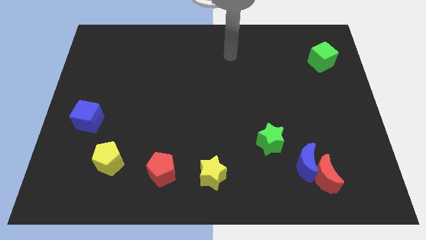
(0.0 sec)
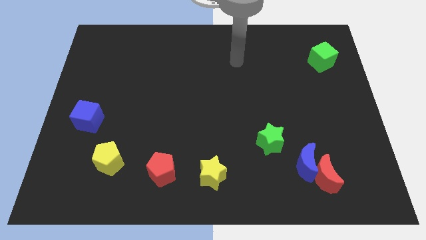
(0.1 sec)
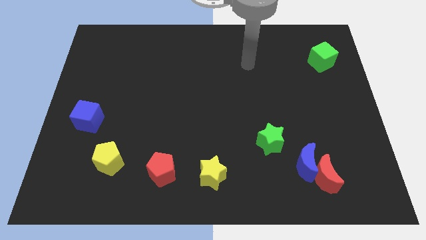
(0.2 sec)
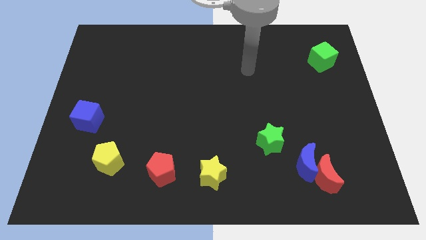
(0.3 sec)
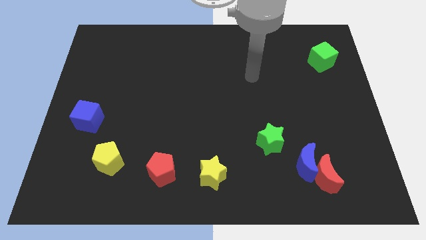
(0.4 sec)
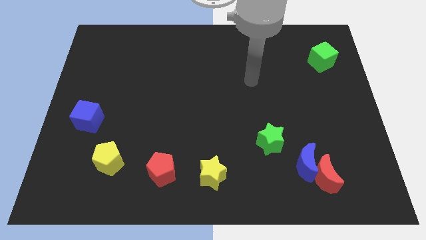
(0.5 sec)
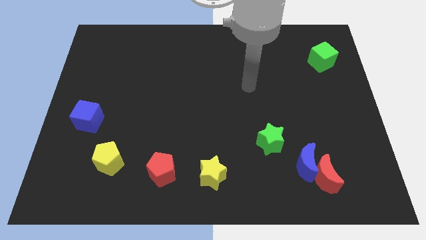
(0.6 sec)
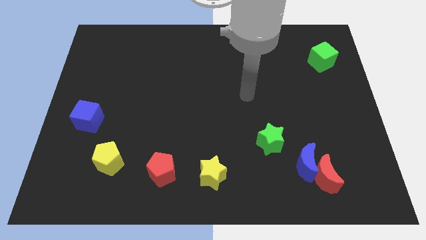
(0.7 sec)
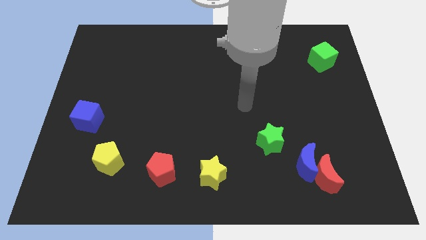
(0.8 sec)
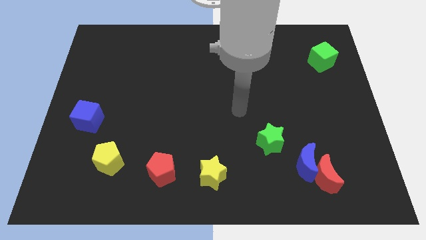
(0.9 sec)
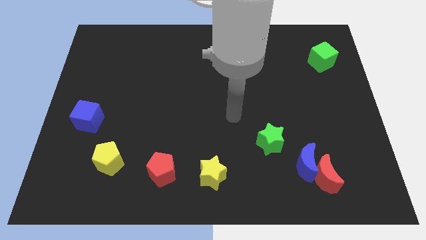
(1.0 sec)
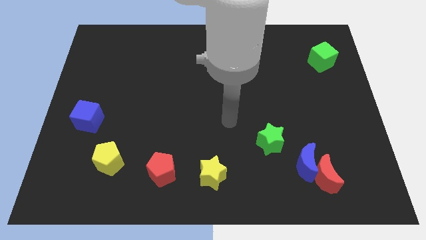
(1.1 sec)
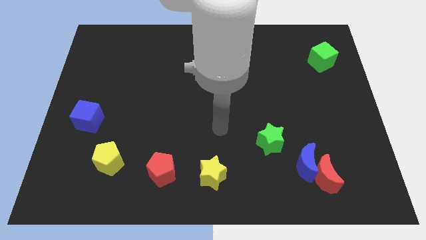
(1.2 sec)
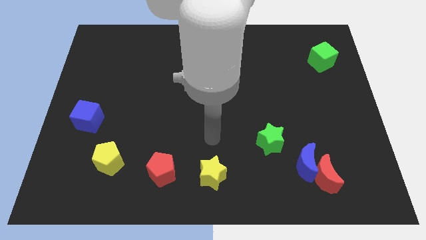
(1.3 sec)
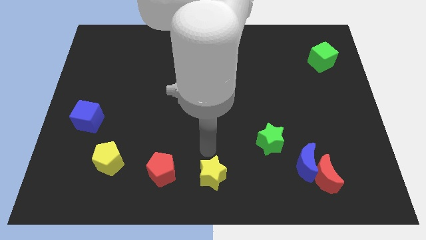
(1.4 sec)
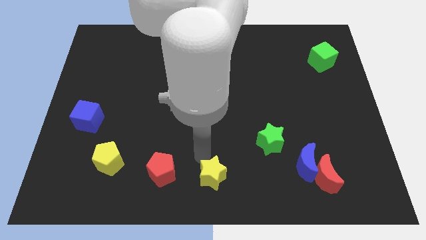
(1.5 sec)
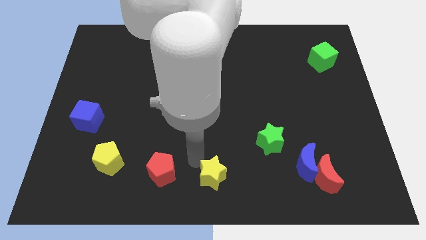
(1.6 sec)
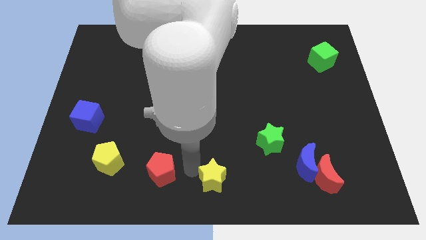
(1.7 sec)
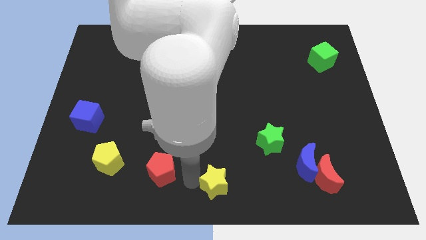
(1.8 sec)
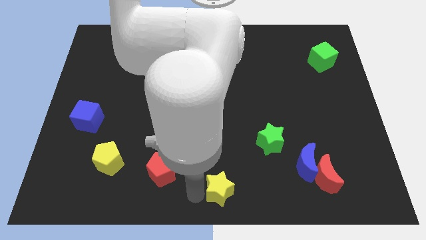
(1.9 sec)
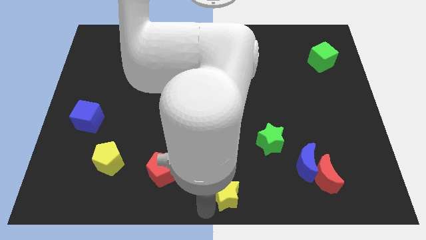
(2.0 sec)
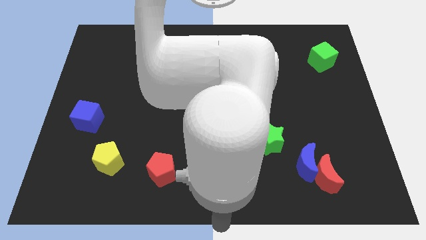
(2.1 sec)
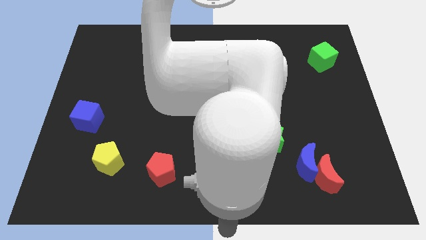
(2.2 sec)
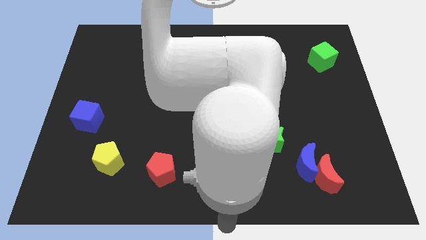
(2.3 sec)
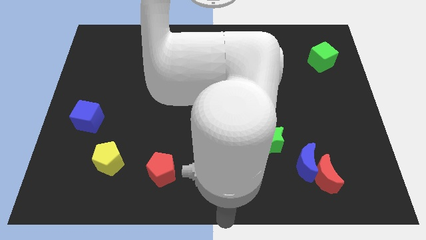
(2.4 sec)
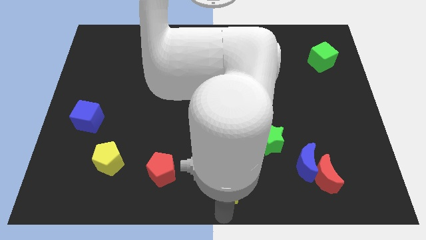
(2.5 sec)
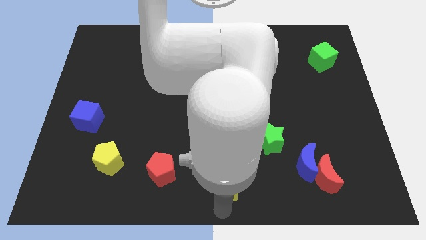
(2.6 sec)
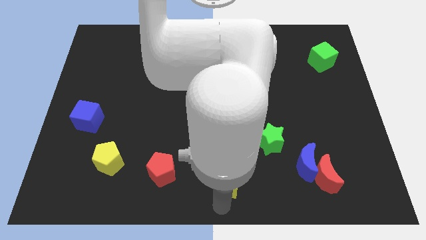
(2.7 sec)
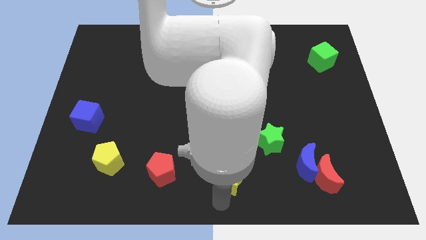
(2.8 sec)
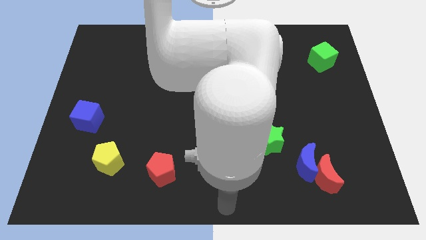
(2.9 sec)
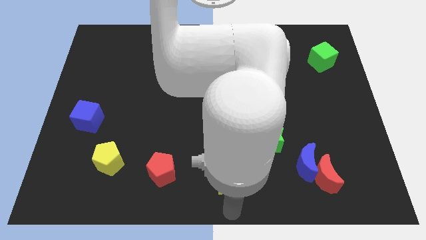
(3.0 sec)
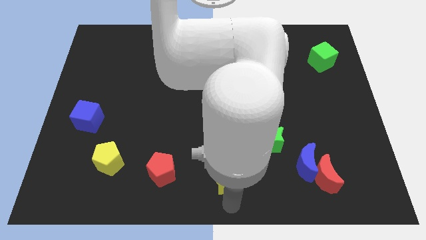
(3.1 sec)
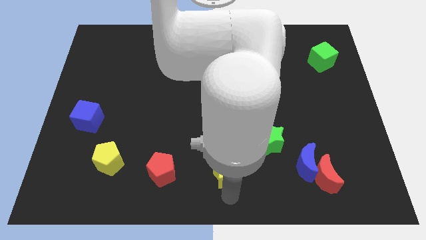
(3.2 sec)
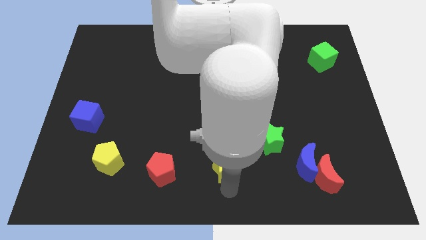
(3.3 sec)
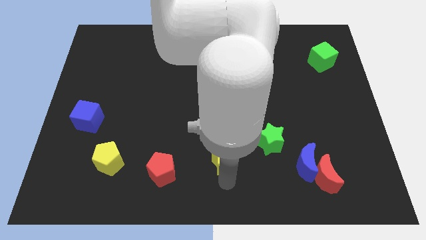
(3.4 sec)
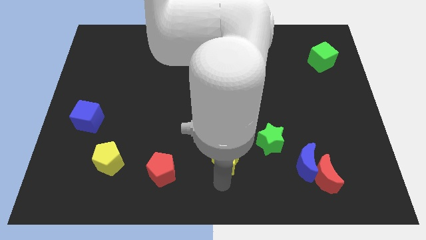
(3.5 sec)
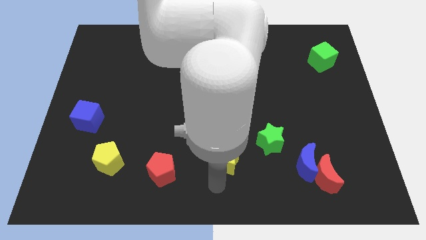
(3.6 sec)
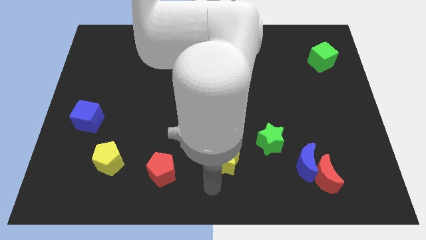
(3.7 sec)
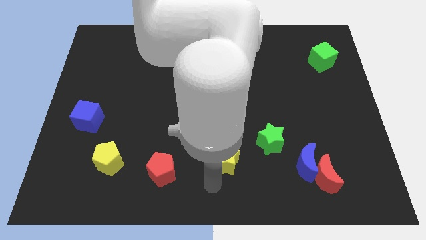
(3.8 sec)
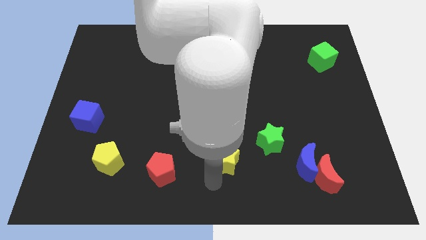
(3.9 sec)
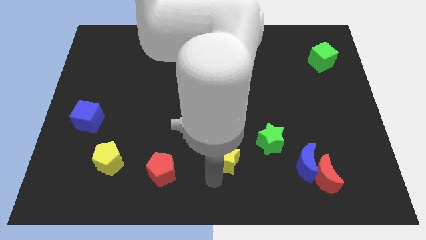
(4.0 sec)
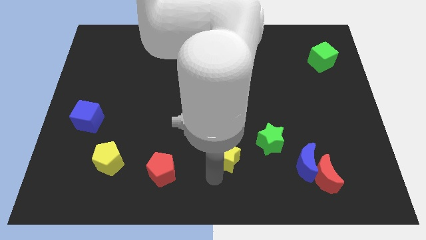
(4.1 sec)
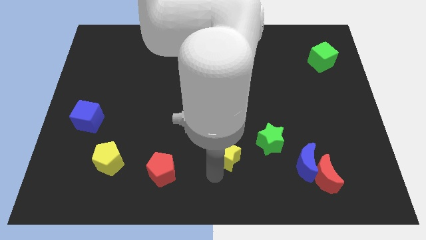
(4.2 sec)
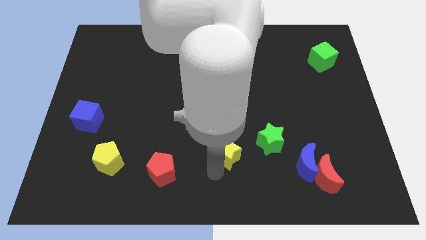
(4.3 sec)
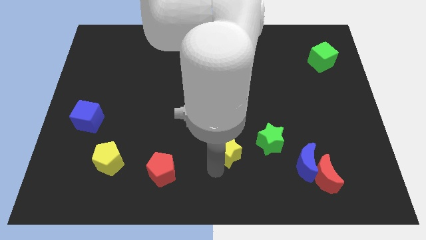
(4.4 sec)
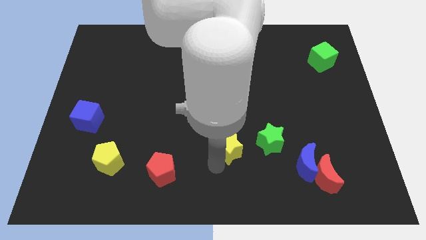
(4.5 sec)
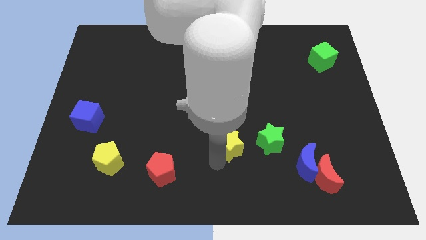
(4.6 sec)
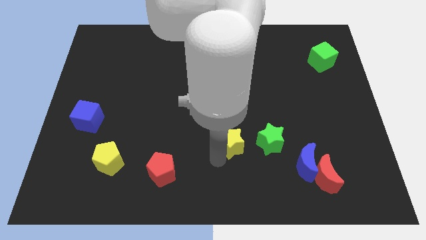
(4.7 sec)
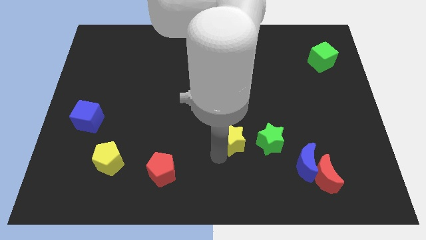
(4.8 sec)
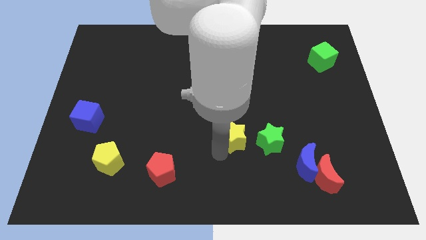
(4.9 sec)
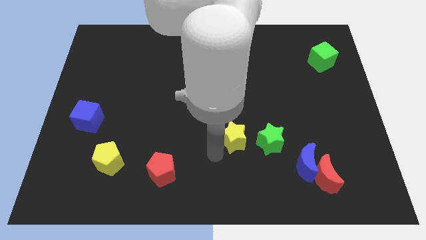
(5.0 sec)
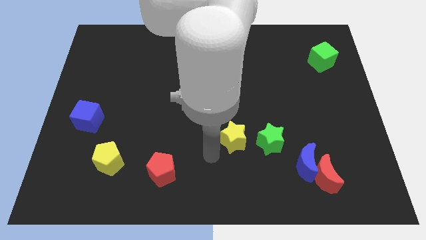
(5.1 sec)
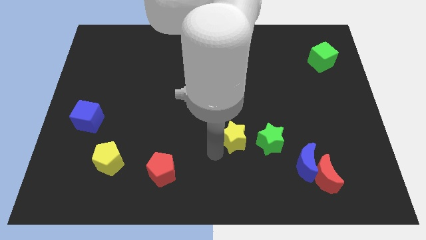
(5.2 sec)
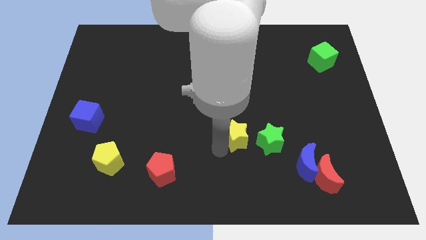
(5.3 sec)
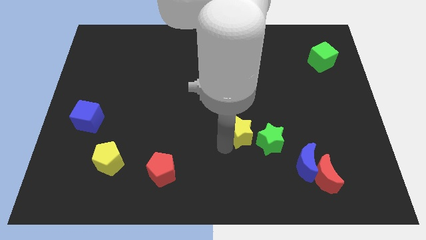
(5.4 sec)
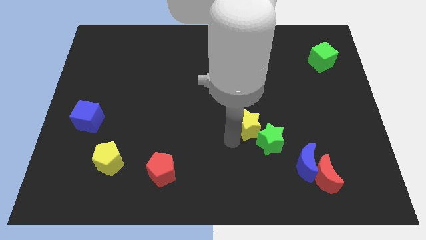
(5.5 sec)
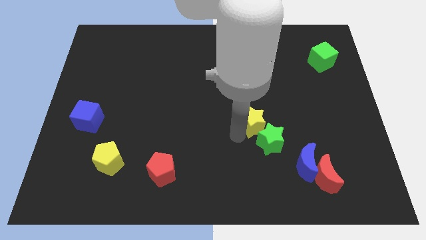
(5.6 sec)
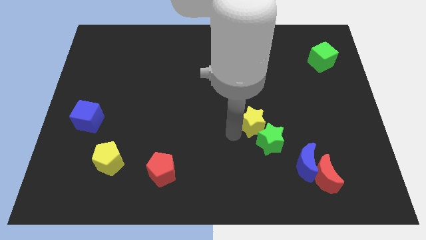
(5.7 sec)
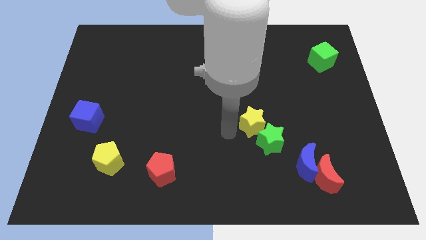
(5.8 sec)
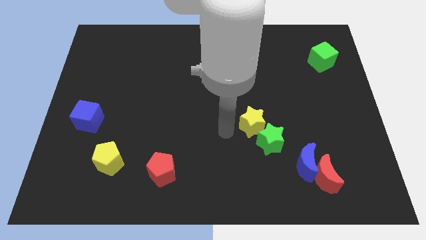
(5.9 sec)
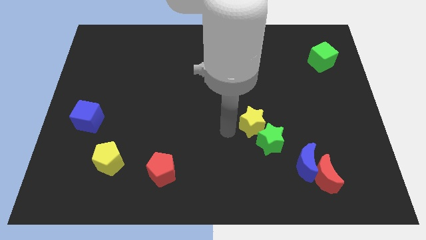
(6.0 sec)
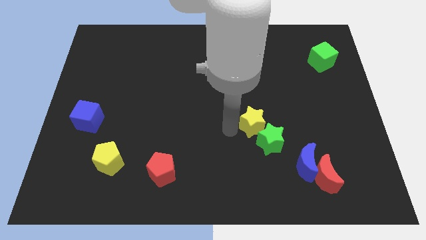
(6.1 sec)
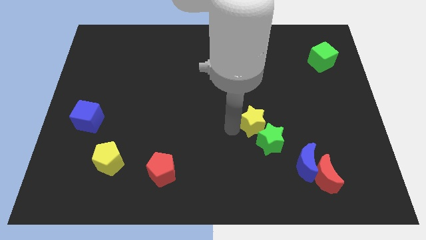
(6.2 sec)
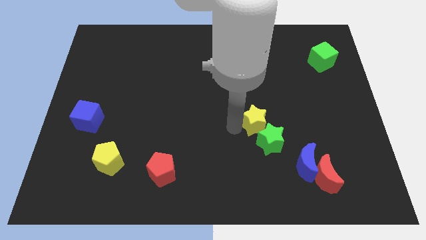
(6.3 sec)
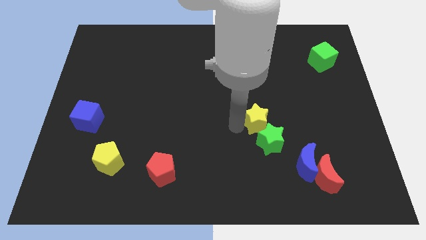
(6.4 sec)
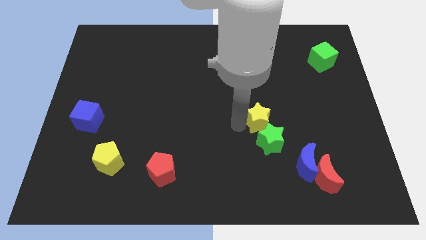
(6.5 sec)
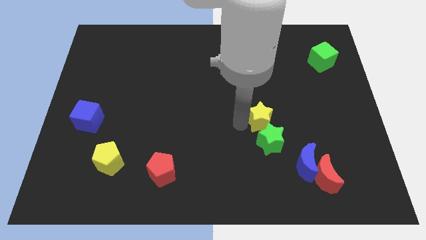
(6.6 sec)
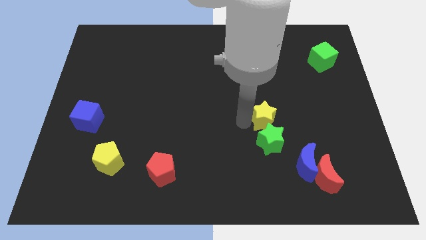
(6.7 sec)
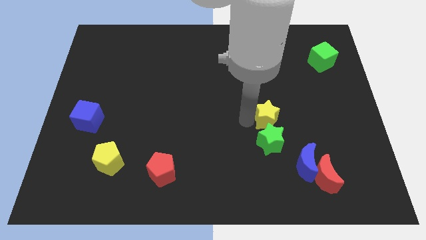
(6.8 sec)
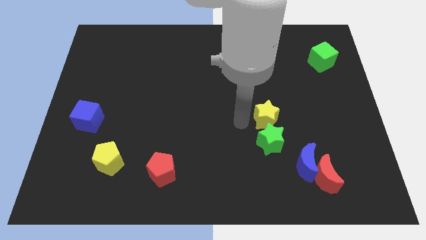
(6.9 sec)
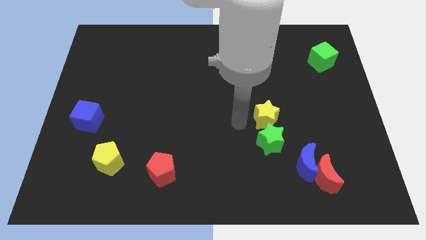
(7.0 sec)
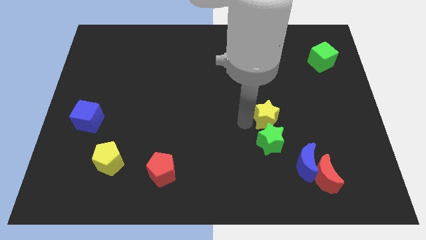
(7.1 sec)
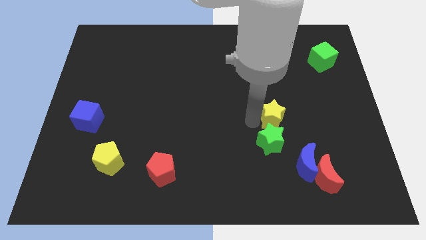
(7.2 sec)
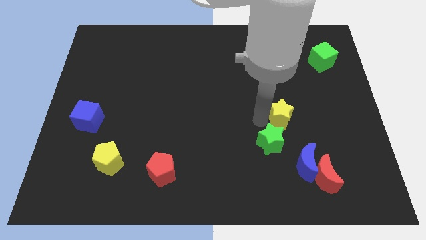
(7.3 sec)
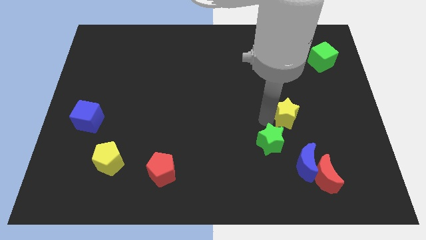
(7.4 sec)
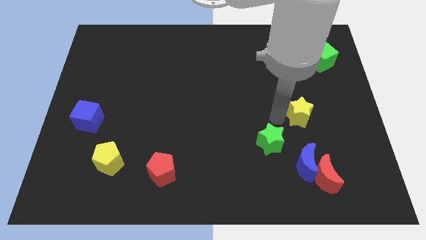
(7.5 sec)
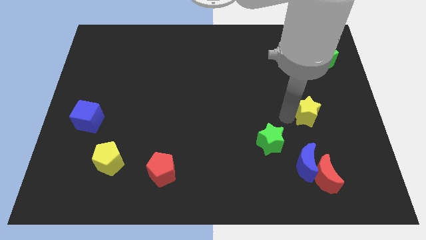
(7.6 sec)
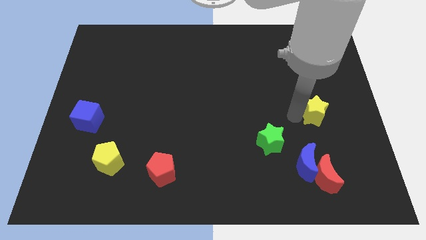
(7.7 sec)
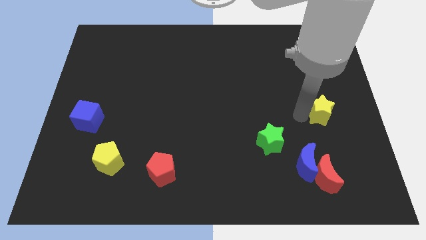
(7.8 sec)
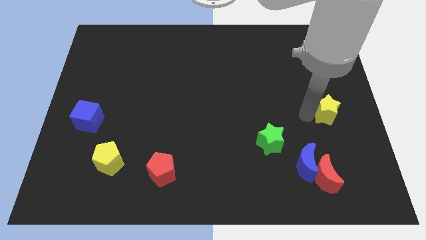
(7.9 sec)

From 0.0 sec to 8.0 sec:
push the yellow star to the right side

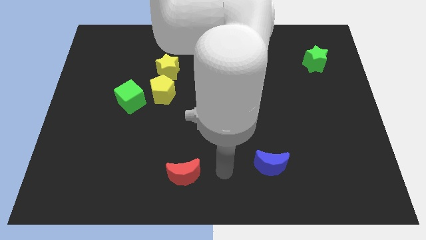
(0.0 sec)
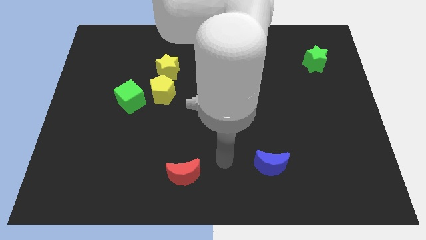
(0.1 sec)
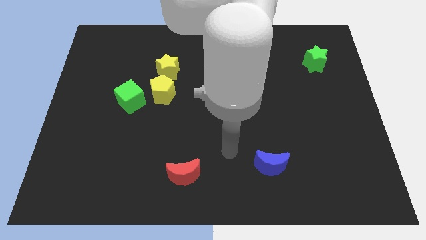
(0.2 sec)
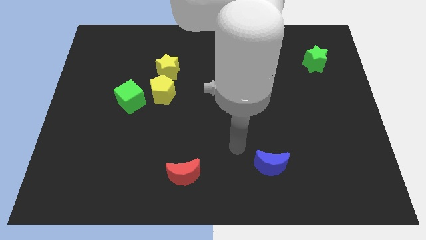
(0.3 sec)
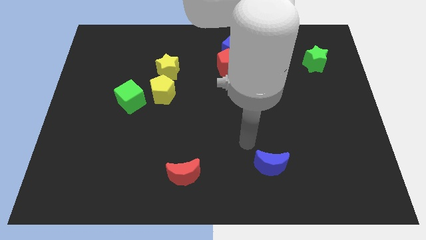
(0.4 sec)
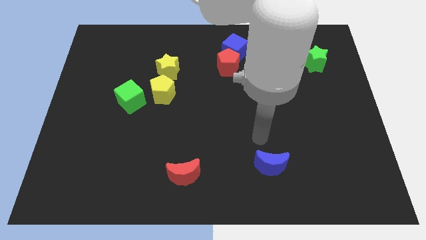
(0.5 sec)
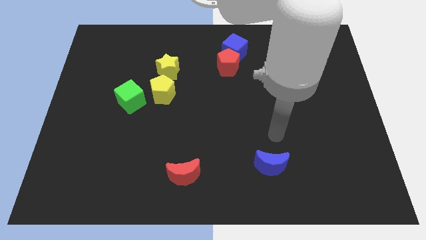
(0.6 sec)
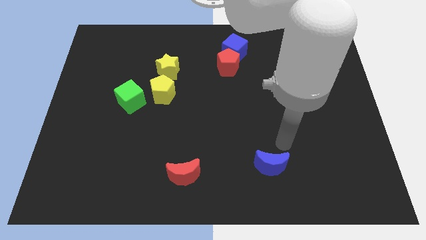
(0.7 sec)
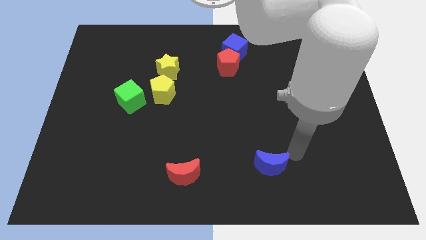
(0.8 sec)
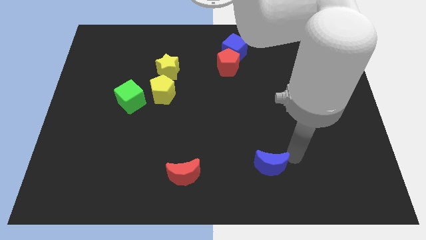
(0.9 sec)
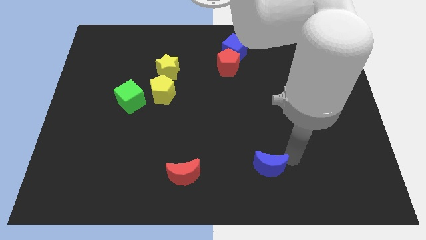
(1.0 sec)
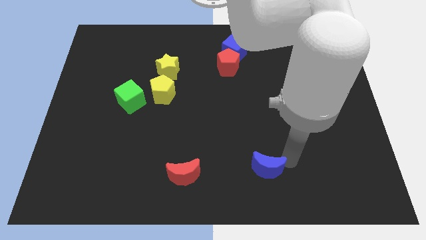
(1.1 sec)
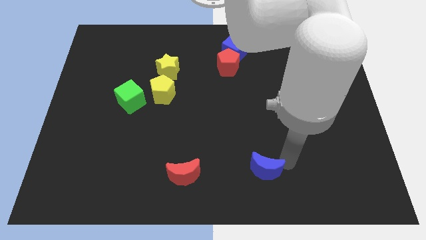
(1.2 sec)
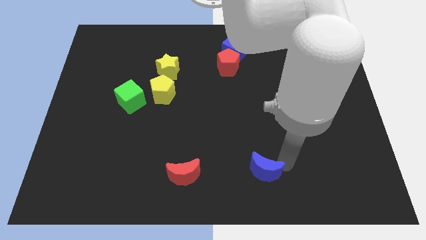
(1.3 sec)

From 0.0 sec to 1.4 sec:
put the blue moon to the bottom side
